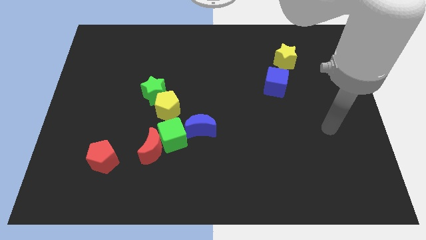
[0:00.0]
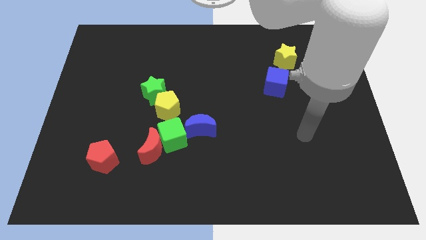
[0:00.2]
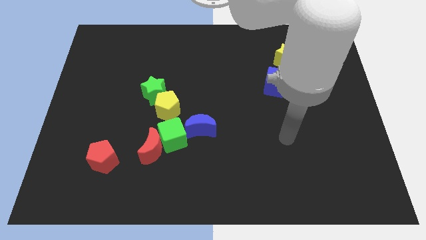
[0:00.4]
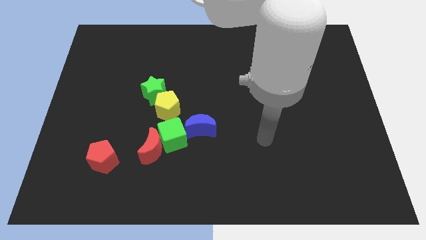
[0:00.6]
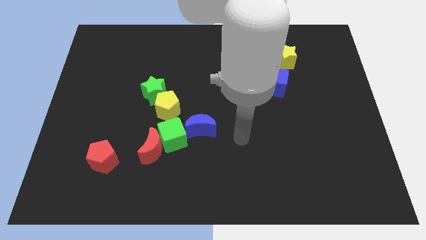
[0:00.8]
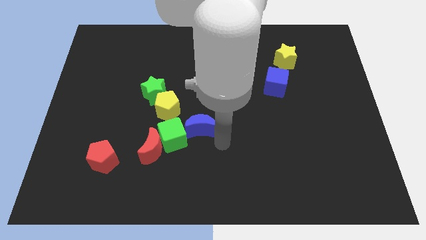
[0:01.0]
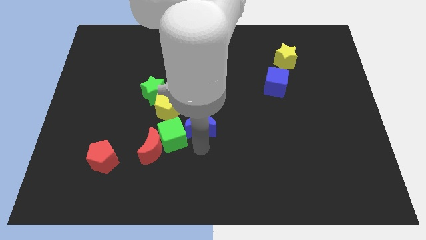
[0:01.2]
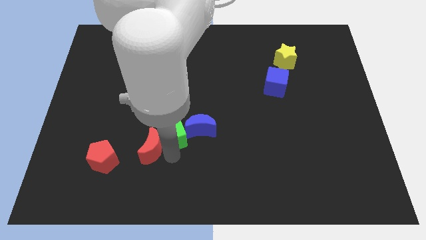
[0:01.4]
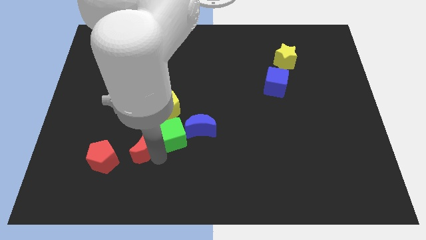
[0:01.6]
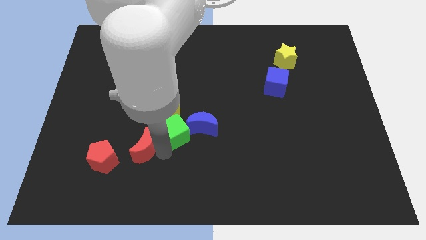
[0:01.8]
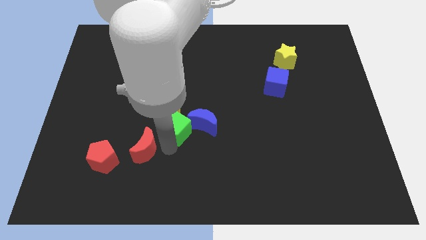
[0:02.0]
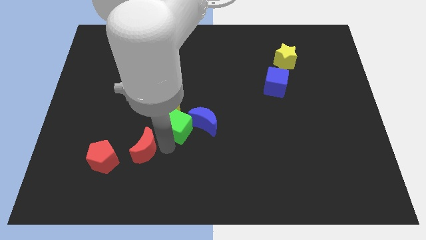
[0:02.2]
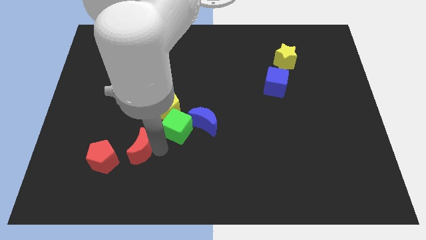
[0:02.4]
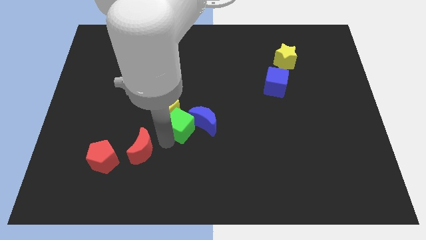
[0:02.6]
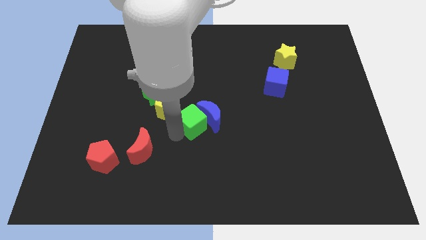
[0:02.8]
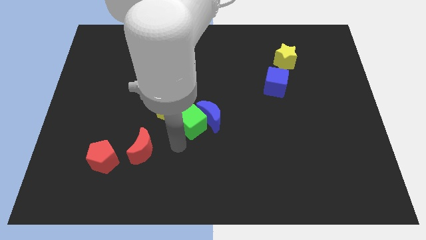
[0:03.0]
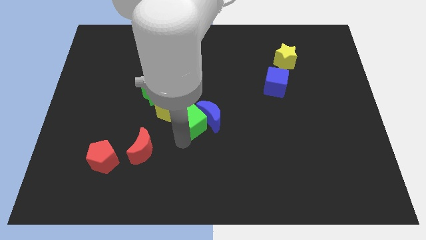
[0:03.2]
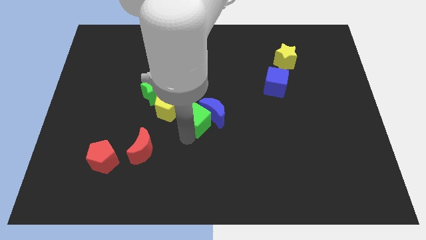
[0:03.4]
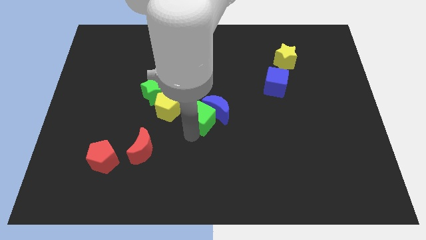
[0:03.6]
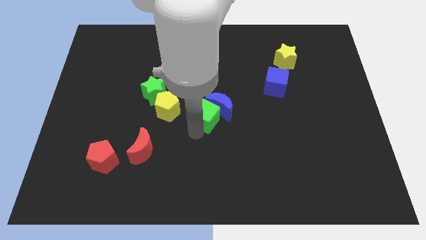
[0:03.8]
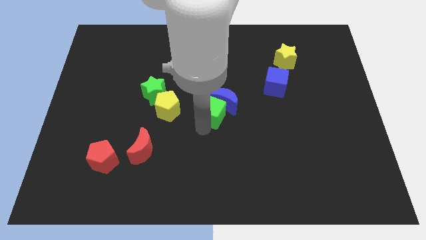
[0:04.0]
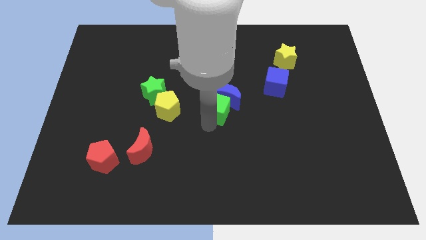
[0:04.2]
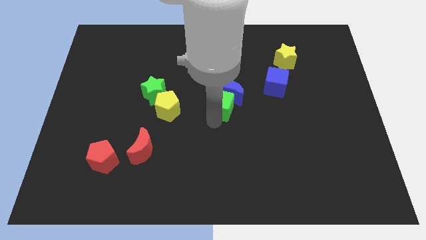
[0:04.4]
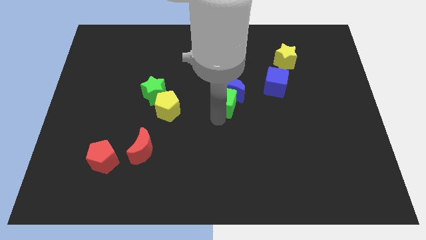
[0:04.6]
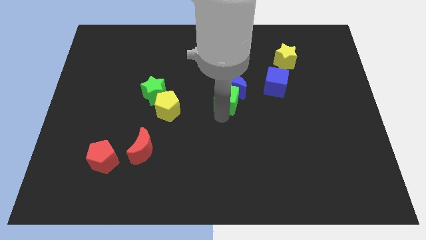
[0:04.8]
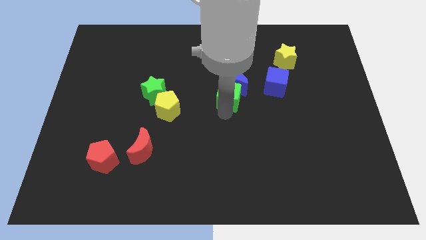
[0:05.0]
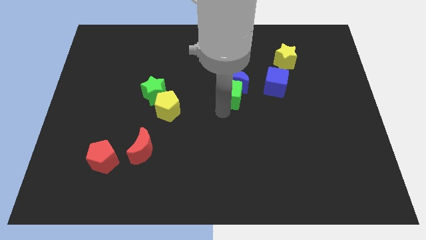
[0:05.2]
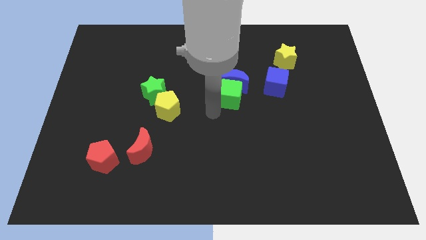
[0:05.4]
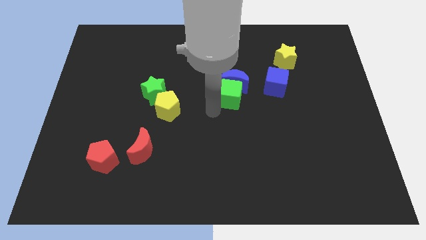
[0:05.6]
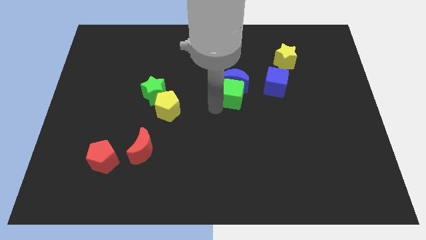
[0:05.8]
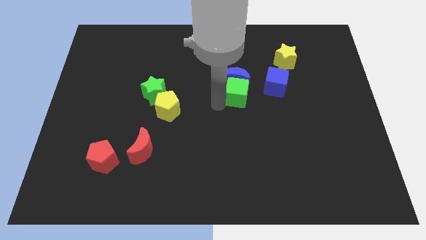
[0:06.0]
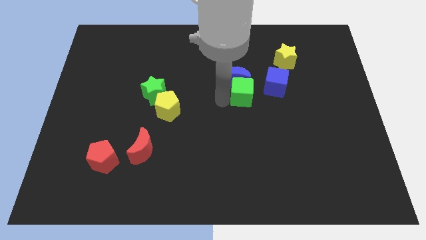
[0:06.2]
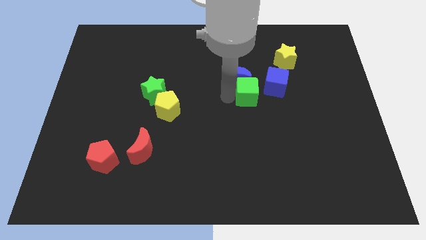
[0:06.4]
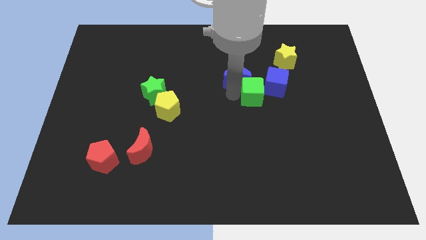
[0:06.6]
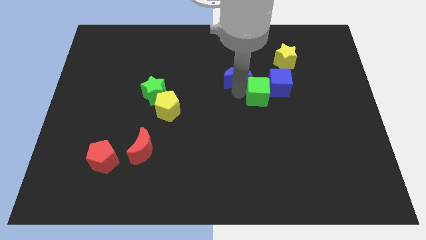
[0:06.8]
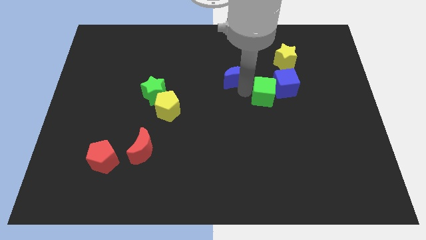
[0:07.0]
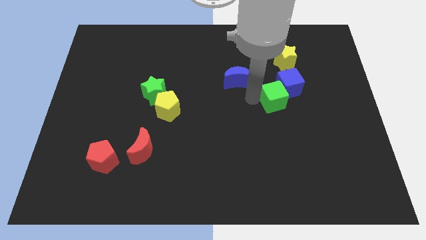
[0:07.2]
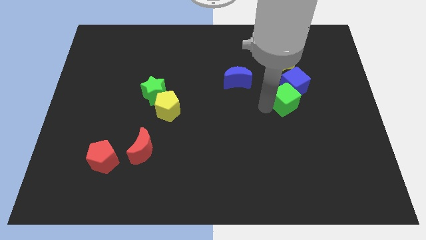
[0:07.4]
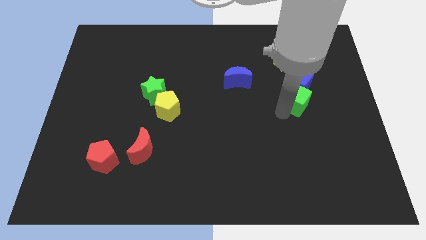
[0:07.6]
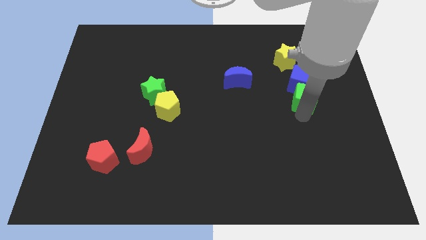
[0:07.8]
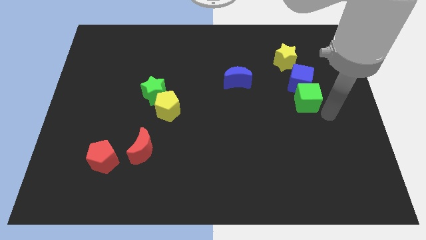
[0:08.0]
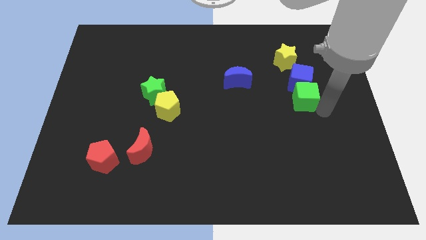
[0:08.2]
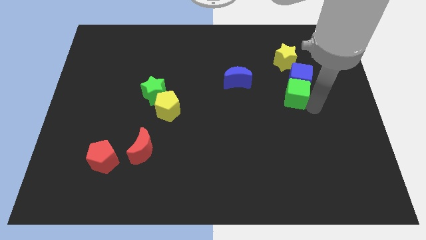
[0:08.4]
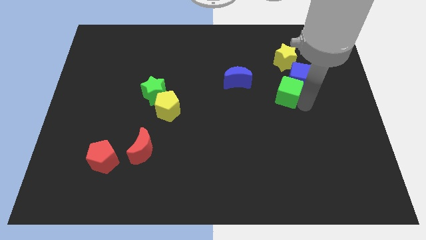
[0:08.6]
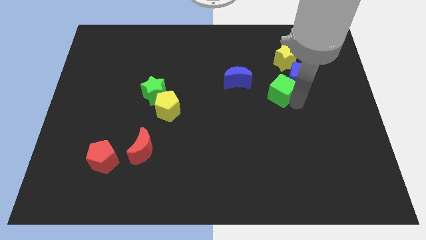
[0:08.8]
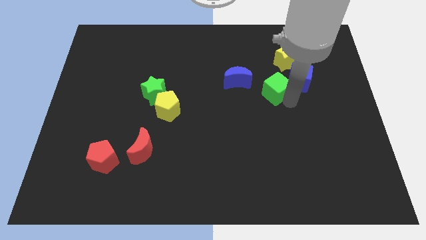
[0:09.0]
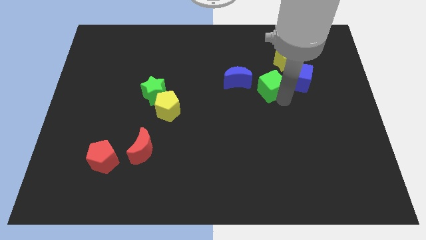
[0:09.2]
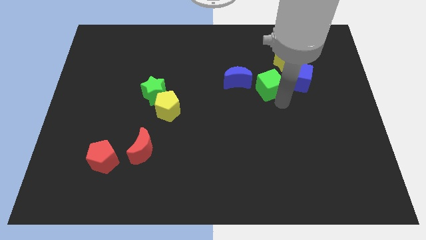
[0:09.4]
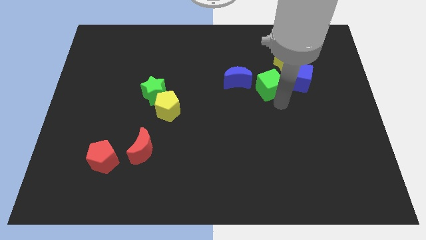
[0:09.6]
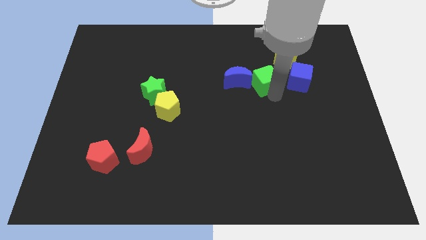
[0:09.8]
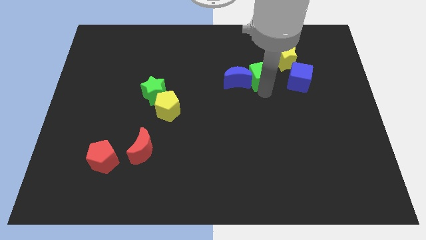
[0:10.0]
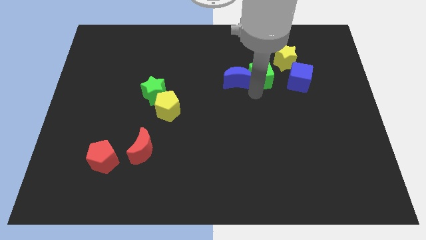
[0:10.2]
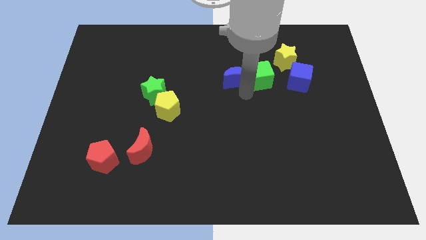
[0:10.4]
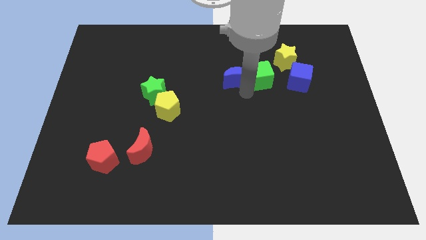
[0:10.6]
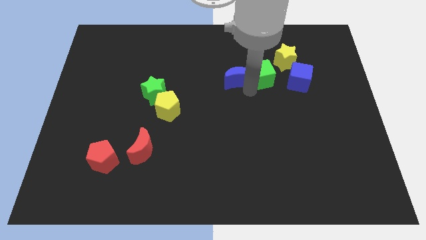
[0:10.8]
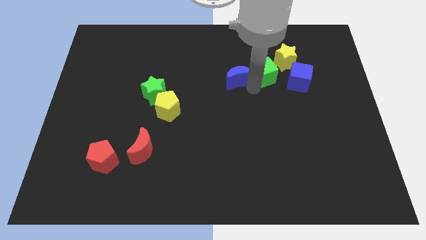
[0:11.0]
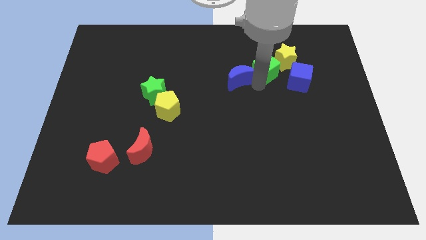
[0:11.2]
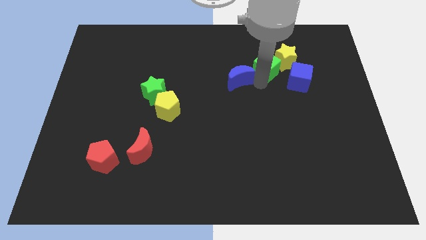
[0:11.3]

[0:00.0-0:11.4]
move the green cube to the yellow star

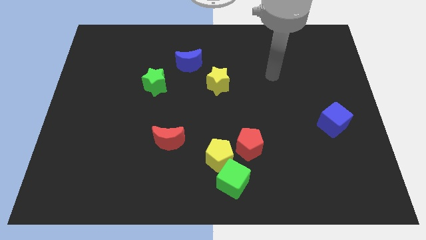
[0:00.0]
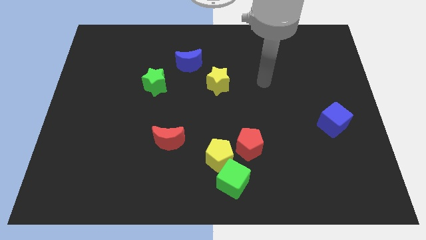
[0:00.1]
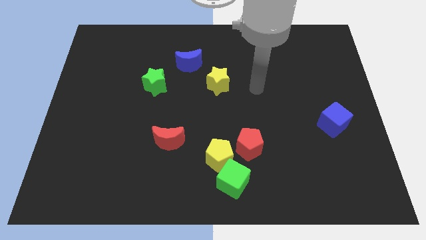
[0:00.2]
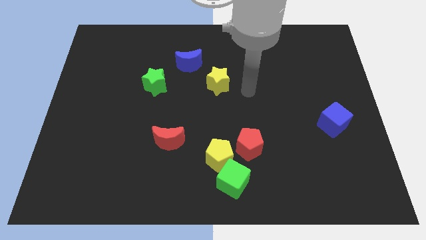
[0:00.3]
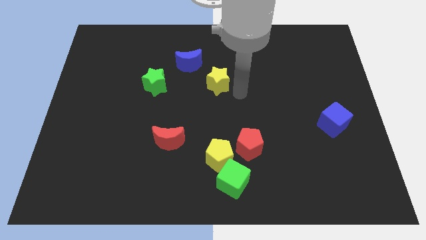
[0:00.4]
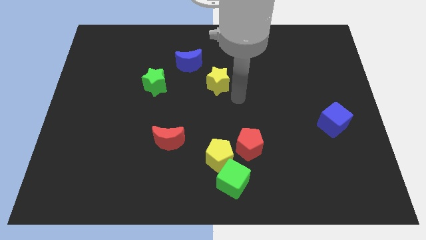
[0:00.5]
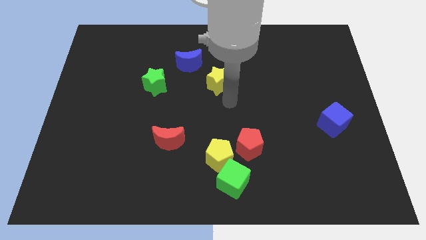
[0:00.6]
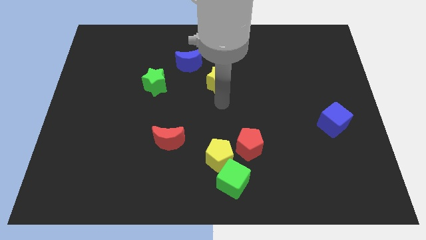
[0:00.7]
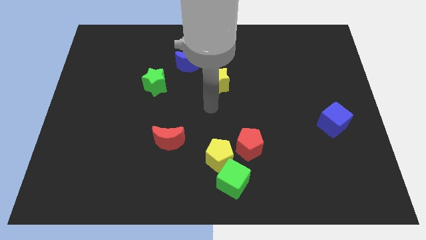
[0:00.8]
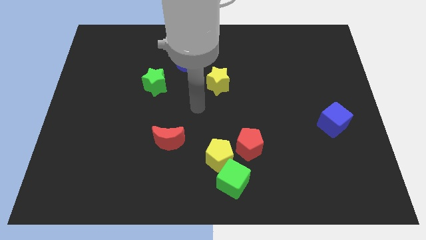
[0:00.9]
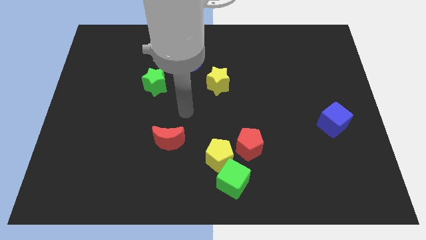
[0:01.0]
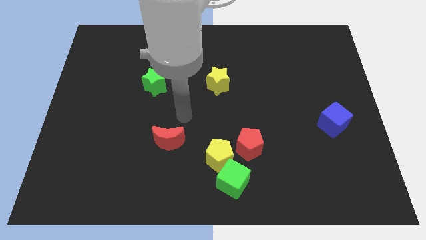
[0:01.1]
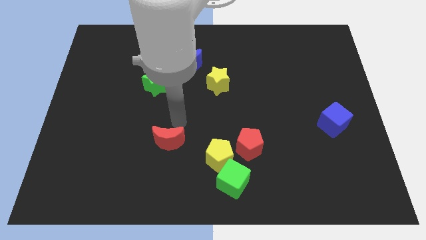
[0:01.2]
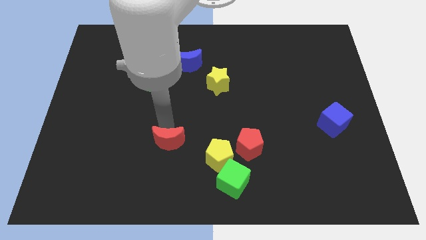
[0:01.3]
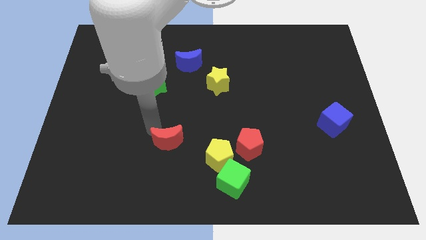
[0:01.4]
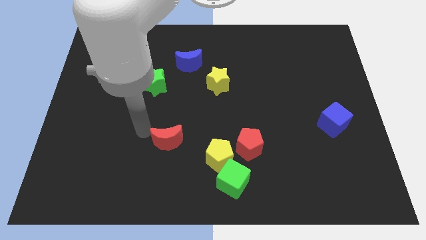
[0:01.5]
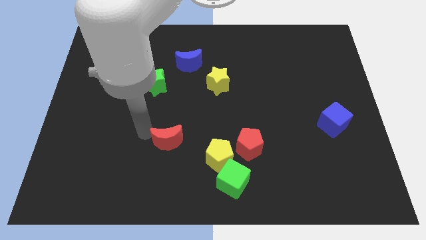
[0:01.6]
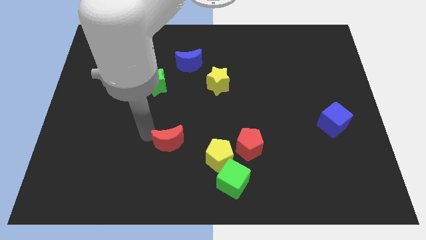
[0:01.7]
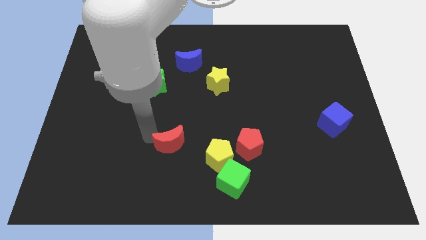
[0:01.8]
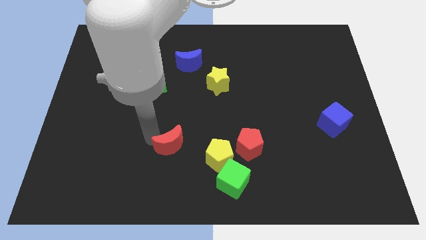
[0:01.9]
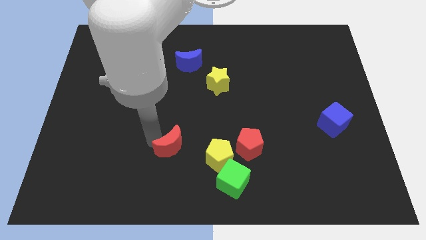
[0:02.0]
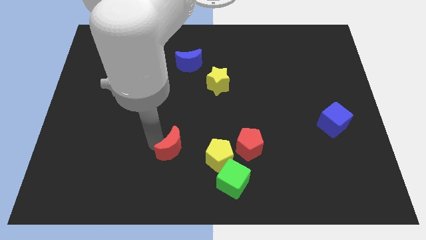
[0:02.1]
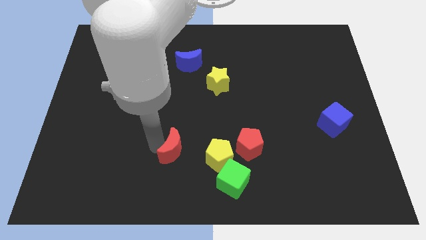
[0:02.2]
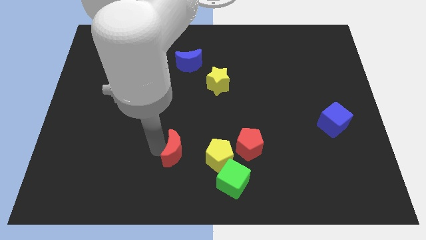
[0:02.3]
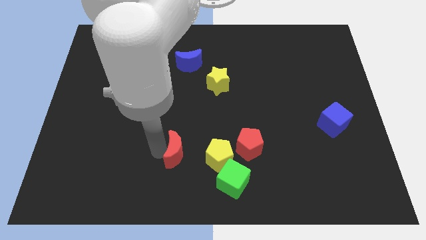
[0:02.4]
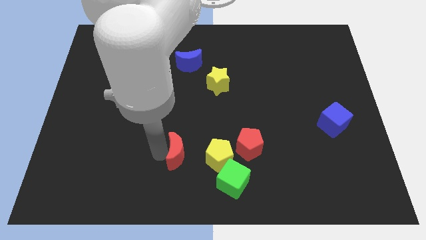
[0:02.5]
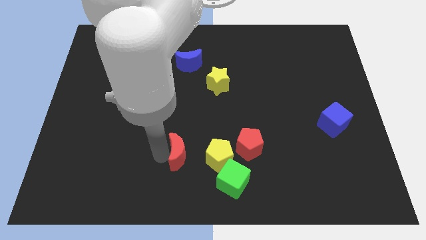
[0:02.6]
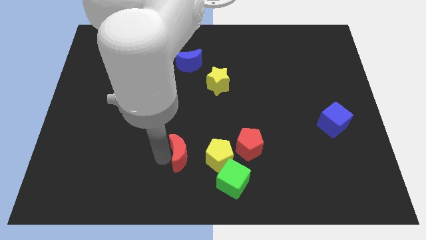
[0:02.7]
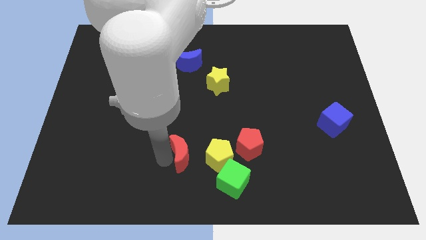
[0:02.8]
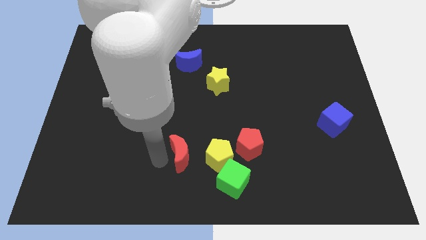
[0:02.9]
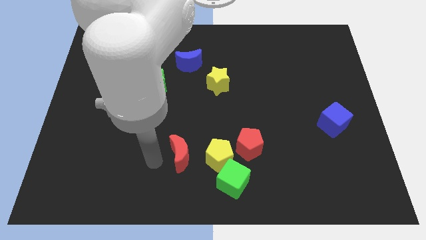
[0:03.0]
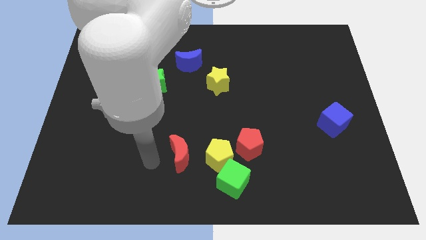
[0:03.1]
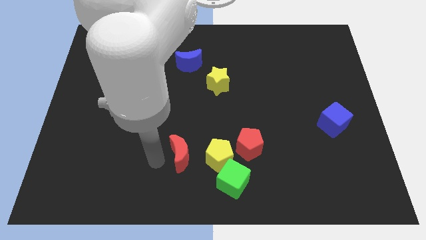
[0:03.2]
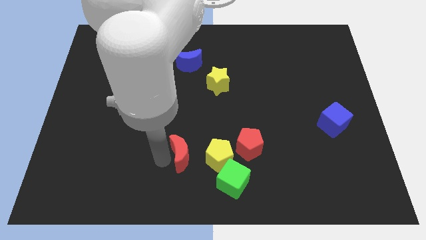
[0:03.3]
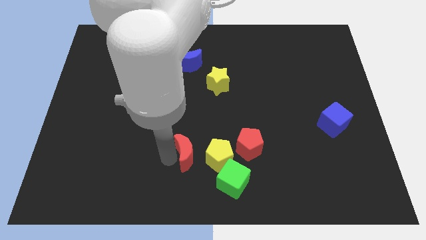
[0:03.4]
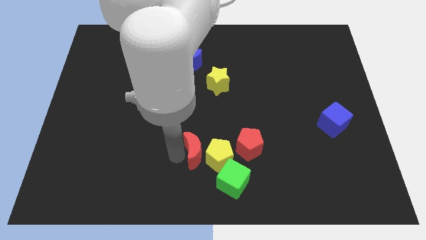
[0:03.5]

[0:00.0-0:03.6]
put the red moon next to the yellow pentagon
